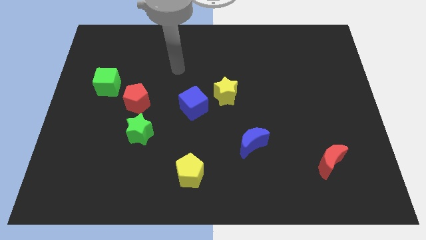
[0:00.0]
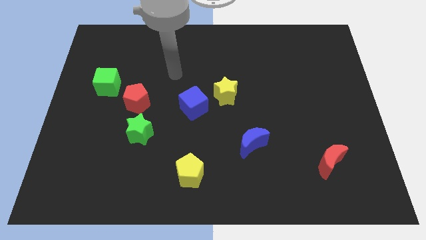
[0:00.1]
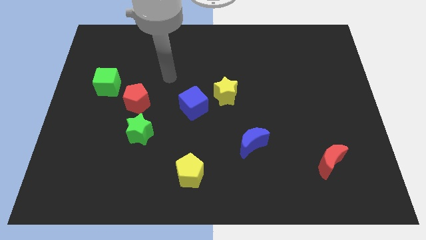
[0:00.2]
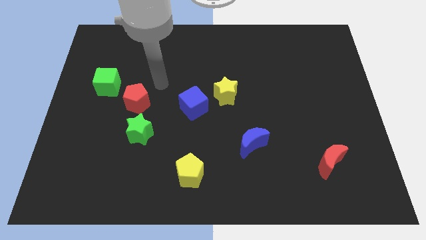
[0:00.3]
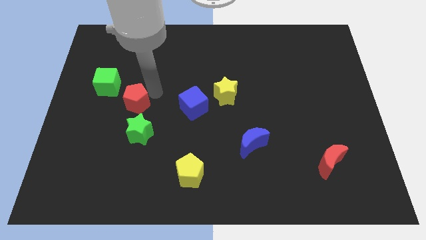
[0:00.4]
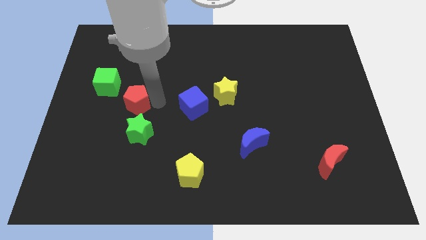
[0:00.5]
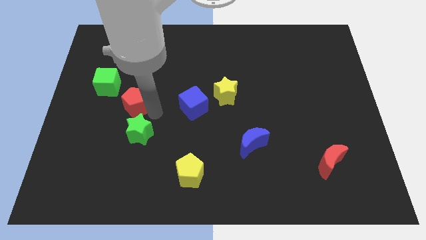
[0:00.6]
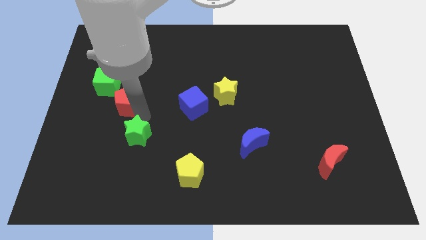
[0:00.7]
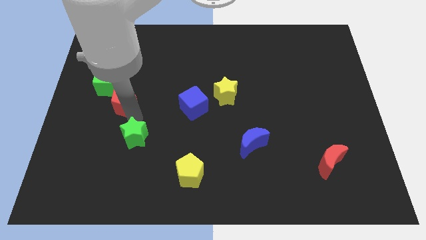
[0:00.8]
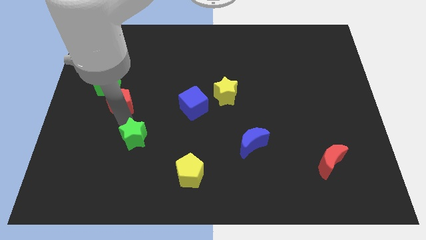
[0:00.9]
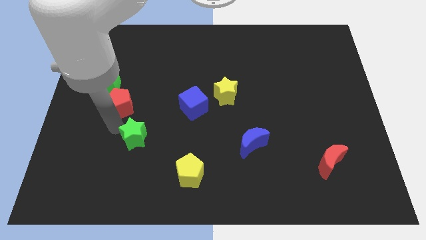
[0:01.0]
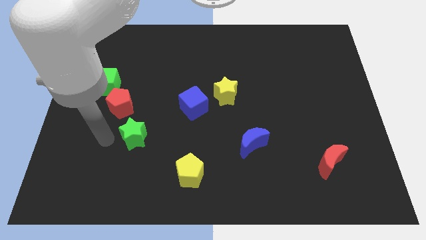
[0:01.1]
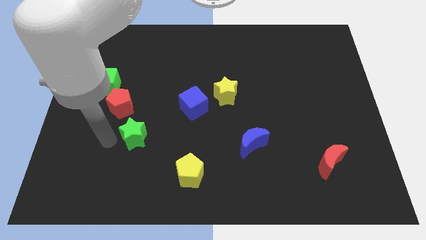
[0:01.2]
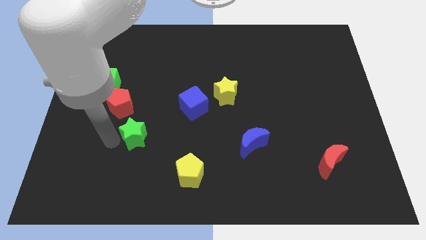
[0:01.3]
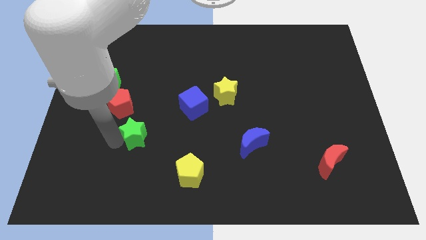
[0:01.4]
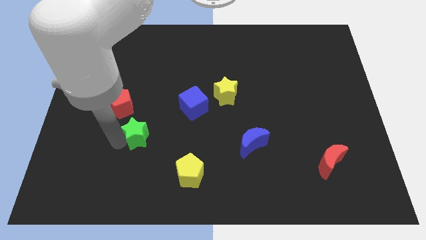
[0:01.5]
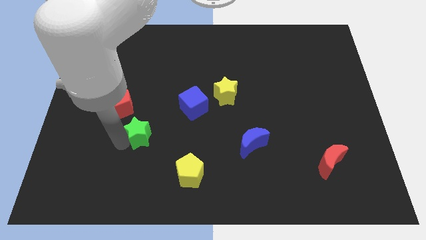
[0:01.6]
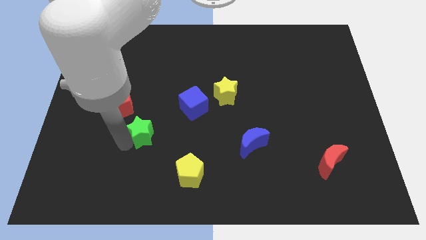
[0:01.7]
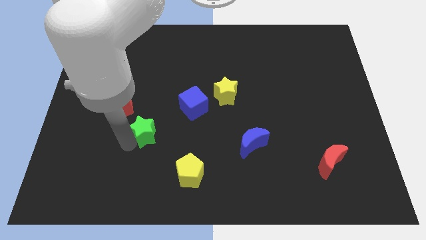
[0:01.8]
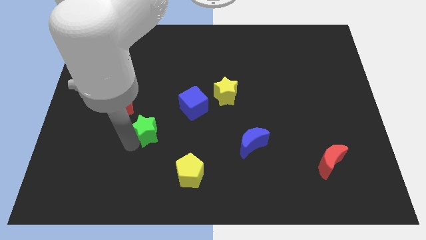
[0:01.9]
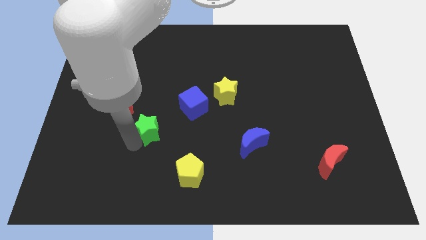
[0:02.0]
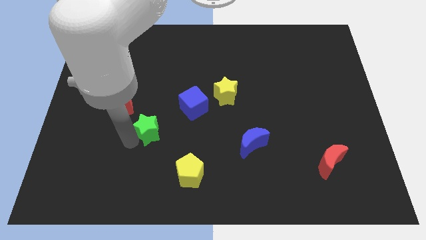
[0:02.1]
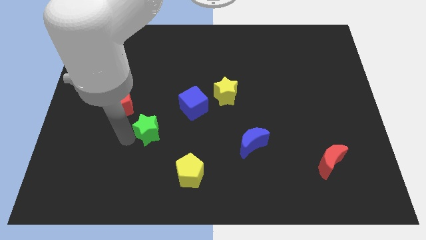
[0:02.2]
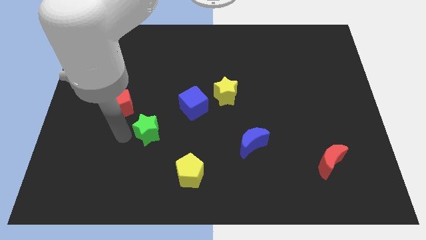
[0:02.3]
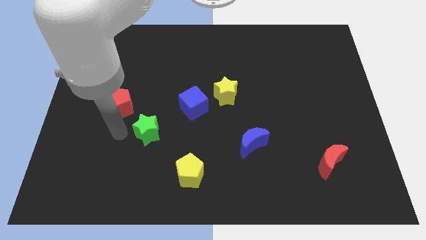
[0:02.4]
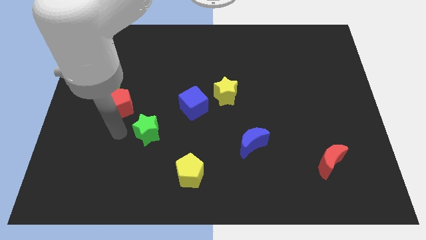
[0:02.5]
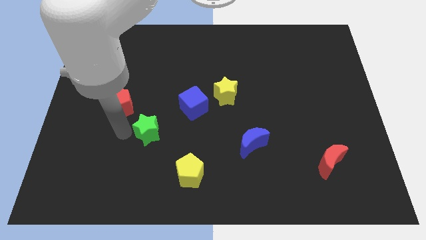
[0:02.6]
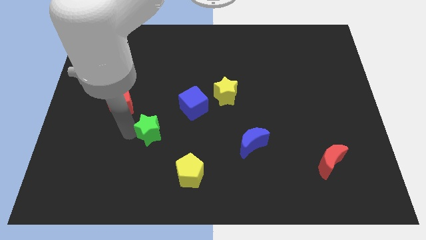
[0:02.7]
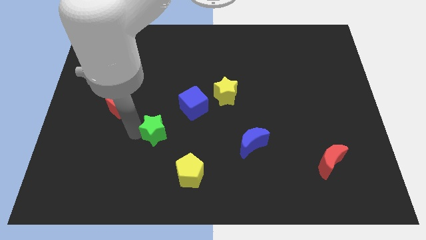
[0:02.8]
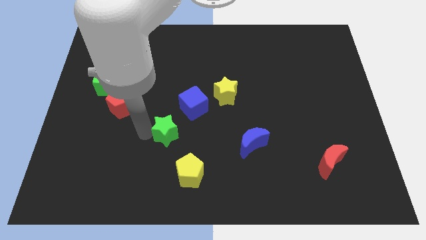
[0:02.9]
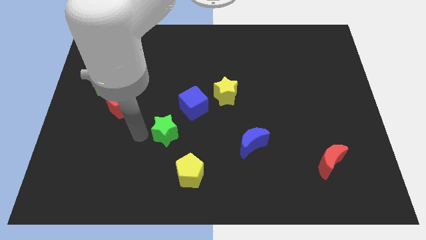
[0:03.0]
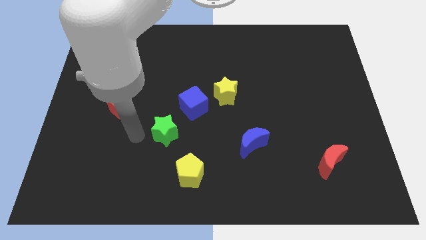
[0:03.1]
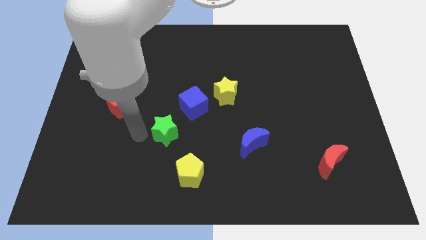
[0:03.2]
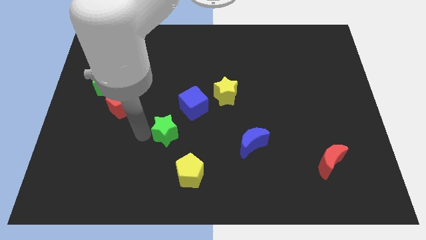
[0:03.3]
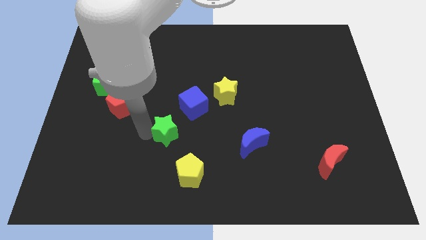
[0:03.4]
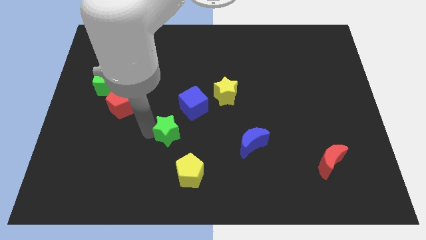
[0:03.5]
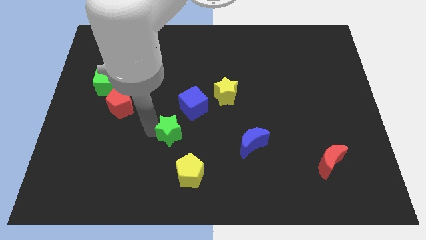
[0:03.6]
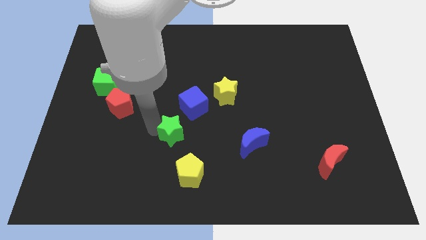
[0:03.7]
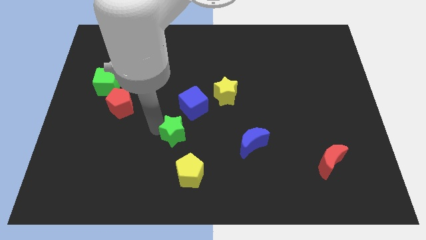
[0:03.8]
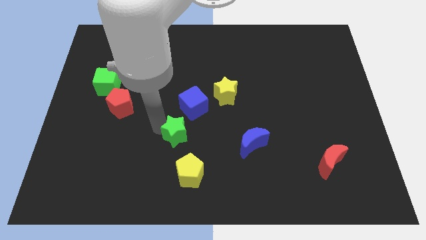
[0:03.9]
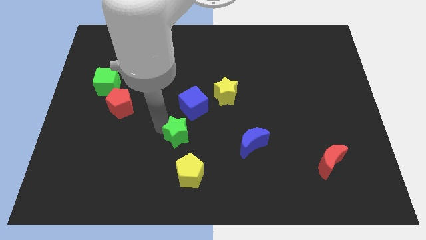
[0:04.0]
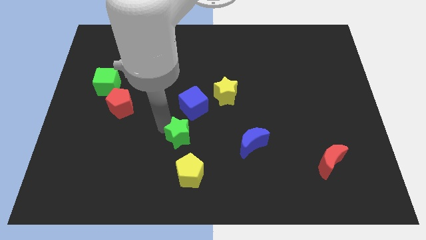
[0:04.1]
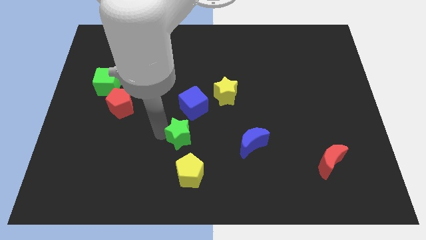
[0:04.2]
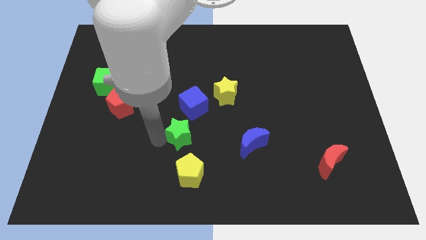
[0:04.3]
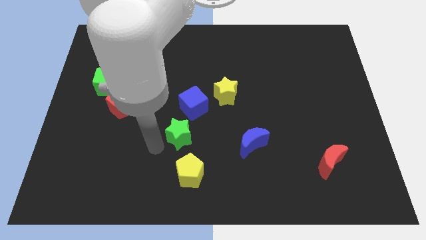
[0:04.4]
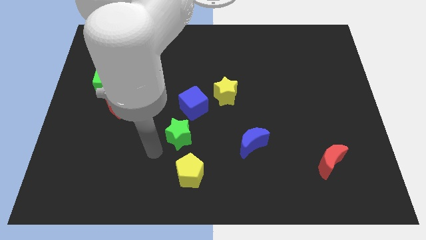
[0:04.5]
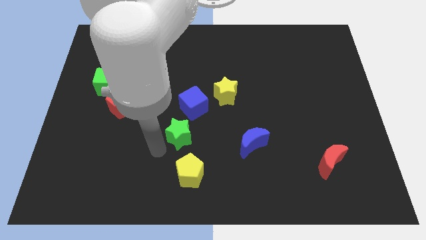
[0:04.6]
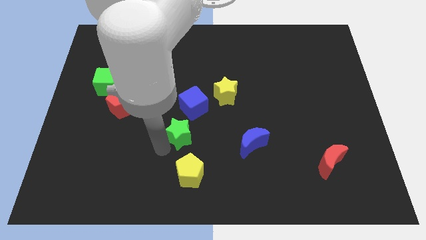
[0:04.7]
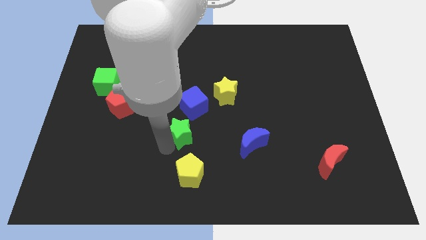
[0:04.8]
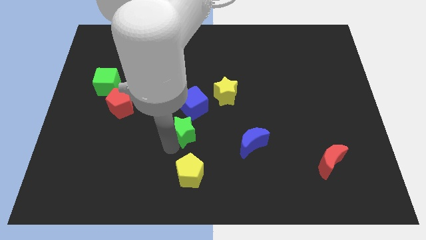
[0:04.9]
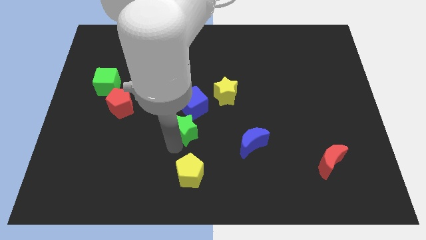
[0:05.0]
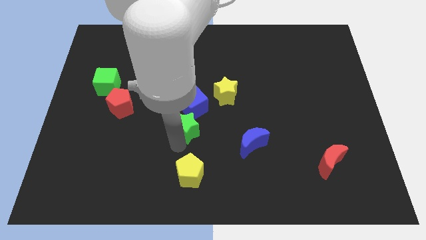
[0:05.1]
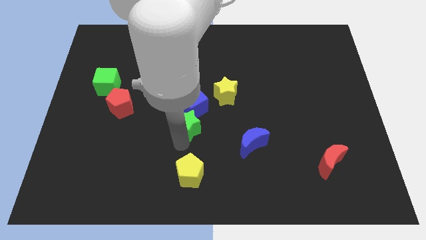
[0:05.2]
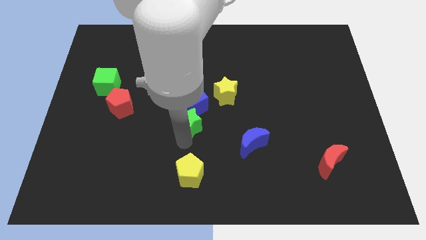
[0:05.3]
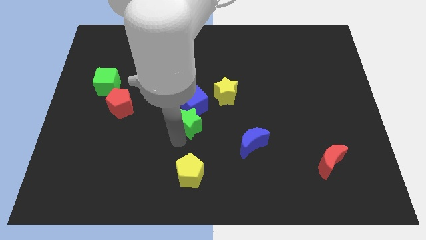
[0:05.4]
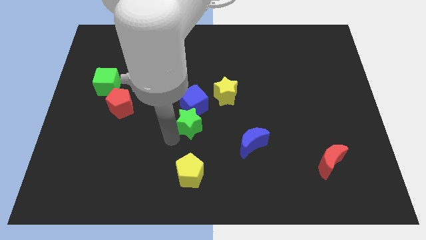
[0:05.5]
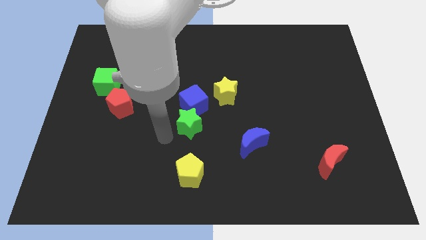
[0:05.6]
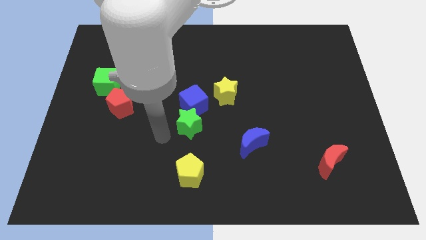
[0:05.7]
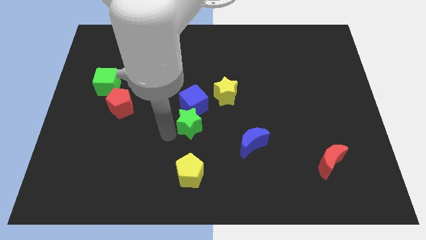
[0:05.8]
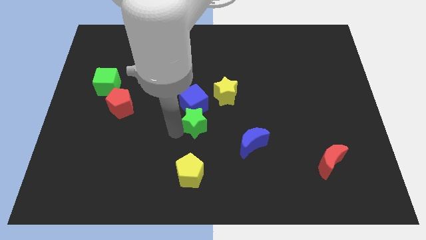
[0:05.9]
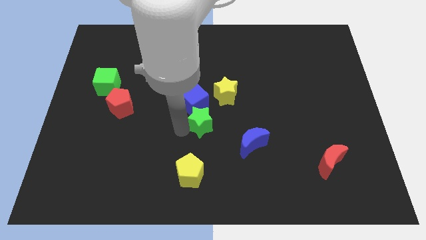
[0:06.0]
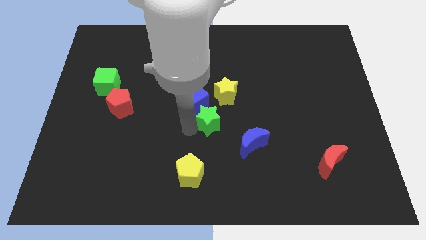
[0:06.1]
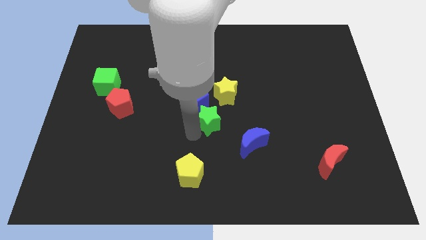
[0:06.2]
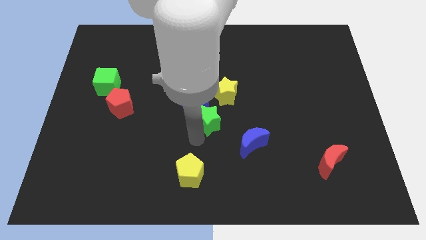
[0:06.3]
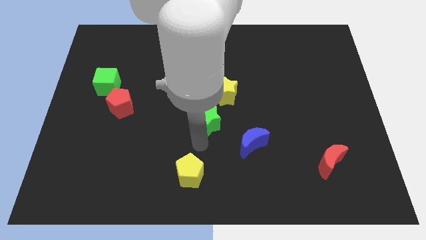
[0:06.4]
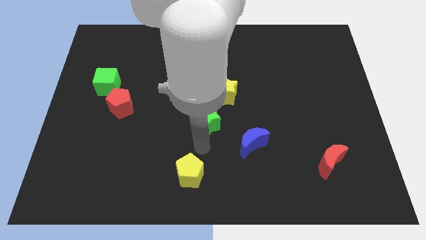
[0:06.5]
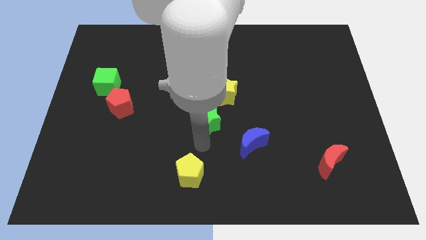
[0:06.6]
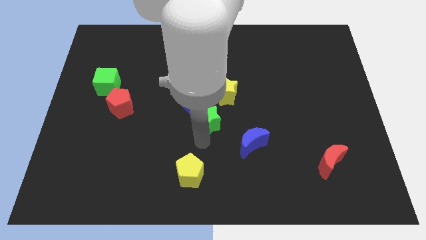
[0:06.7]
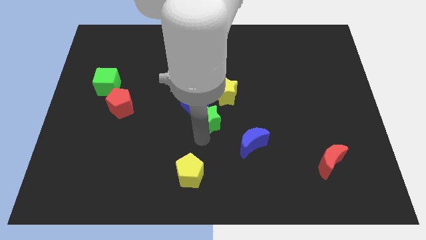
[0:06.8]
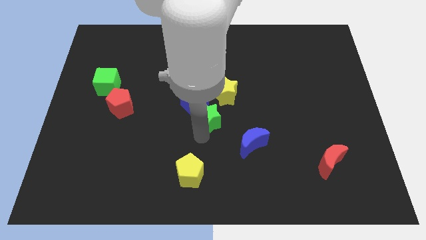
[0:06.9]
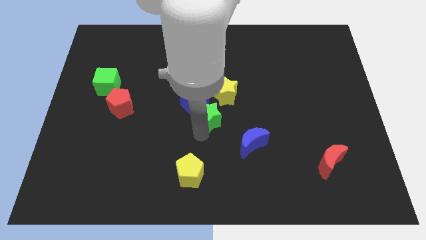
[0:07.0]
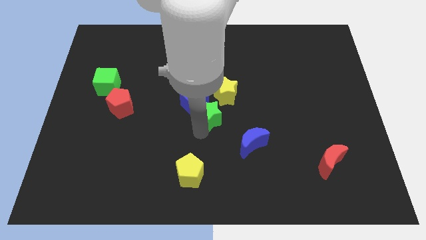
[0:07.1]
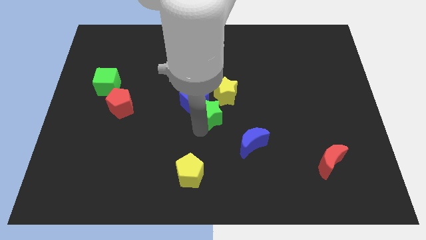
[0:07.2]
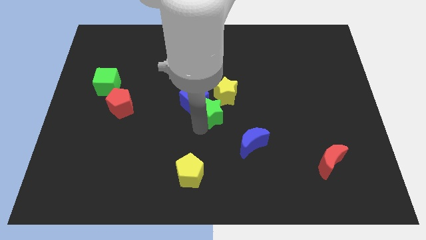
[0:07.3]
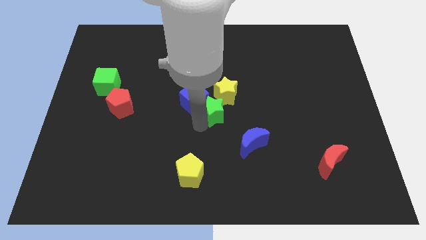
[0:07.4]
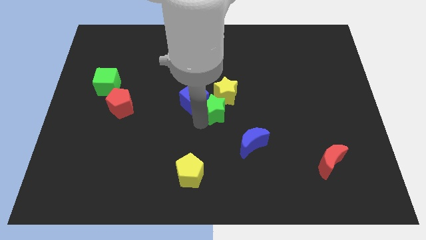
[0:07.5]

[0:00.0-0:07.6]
slide the green star next to the yellow star
